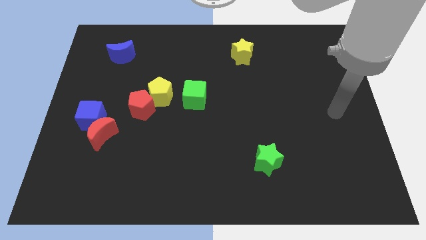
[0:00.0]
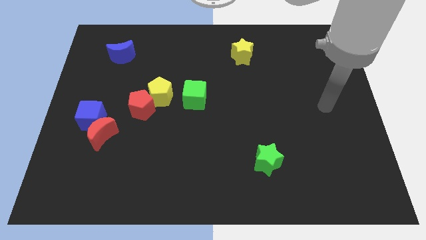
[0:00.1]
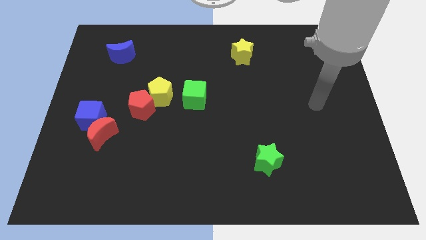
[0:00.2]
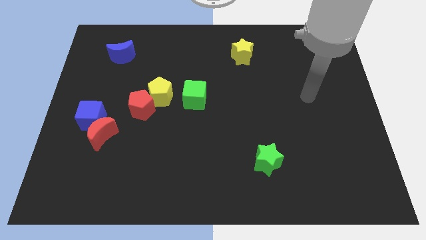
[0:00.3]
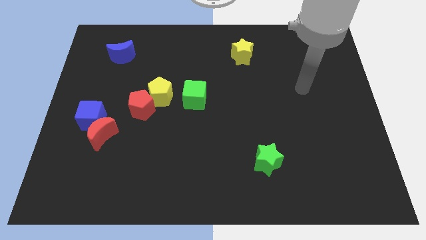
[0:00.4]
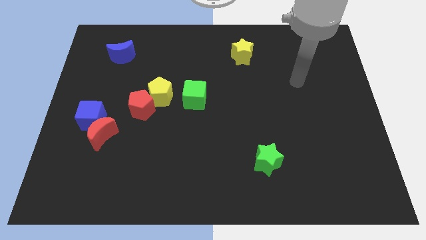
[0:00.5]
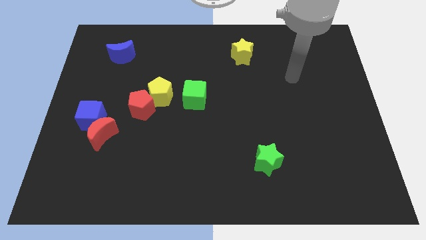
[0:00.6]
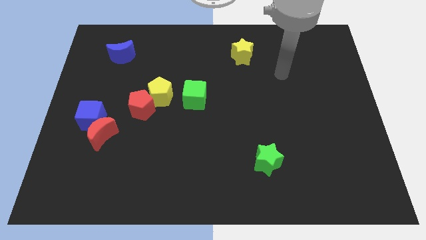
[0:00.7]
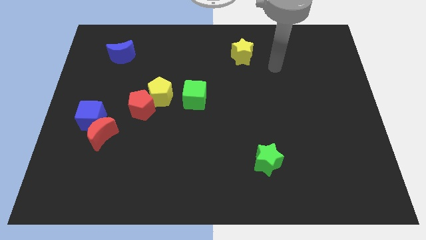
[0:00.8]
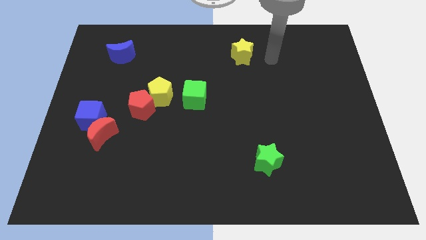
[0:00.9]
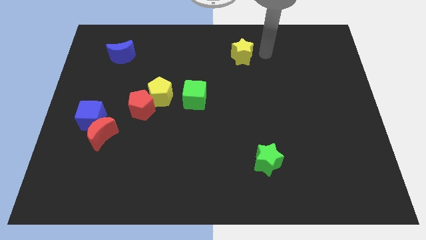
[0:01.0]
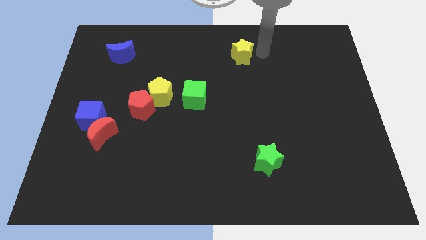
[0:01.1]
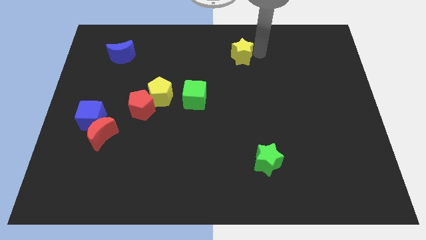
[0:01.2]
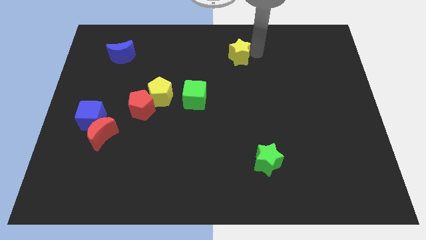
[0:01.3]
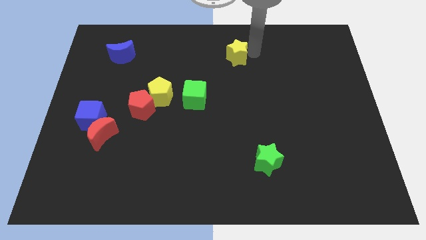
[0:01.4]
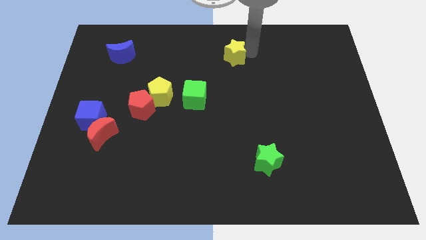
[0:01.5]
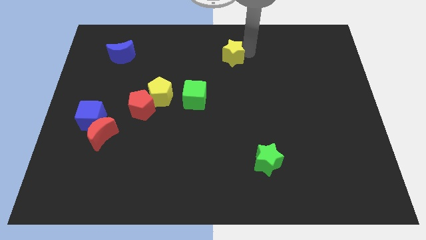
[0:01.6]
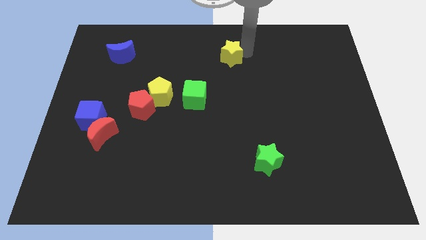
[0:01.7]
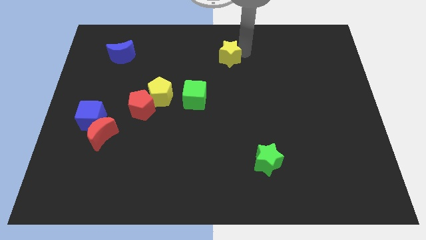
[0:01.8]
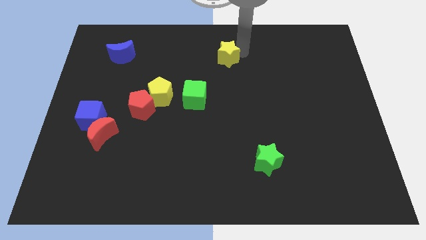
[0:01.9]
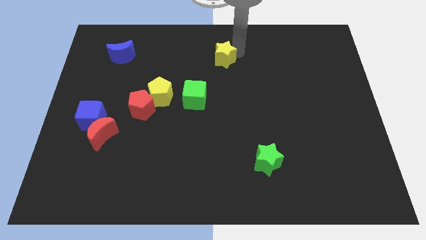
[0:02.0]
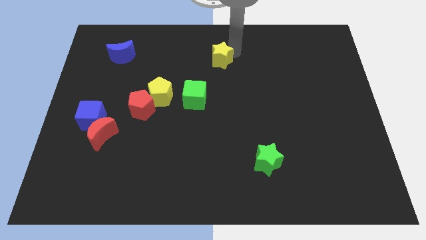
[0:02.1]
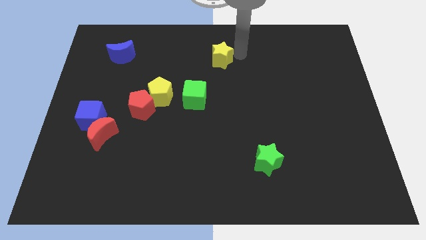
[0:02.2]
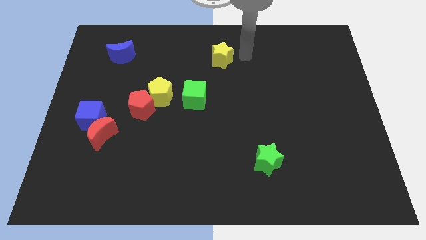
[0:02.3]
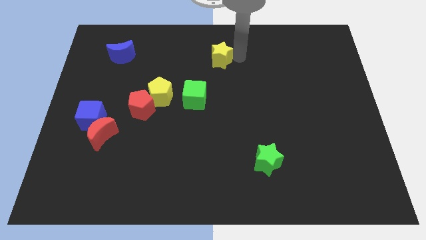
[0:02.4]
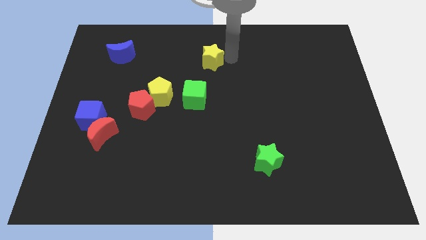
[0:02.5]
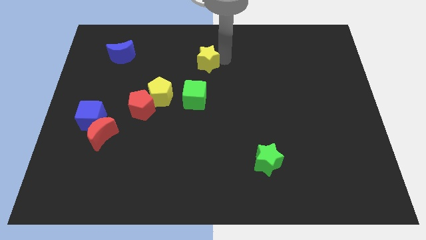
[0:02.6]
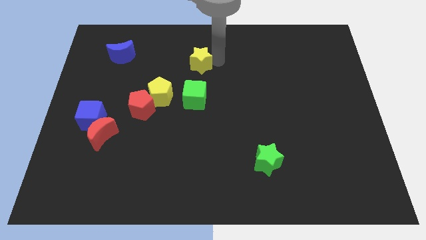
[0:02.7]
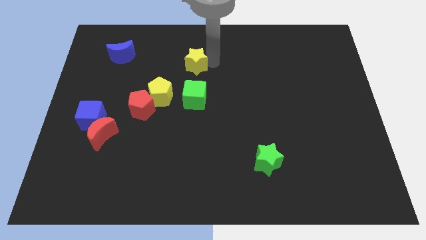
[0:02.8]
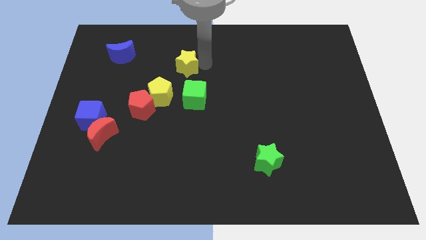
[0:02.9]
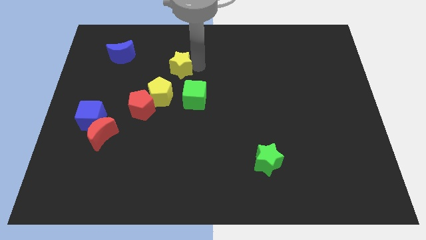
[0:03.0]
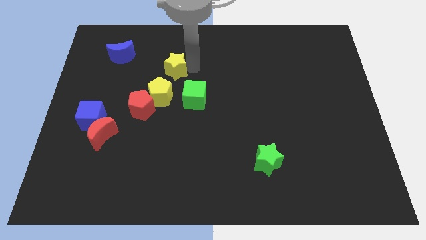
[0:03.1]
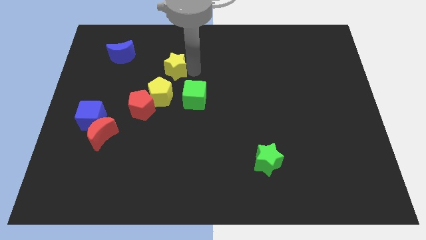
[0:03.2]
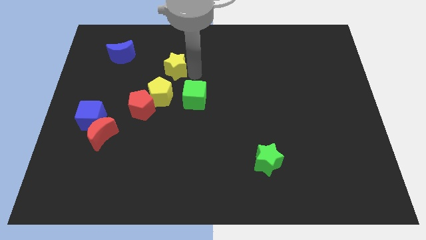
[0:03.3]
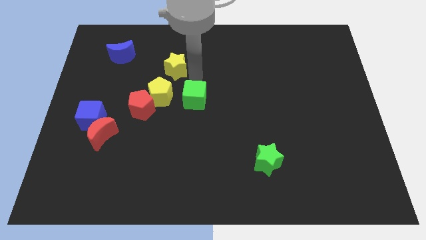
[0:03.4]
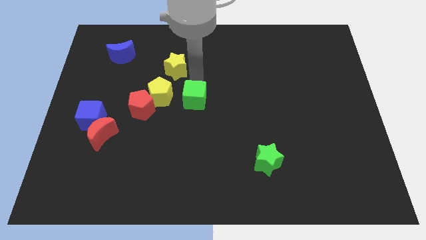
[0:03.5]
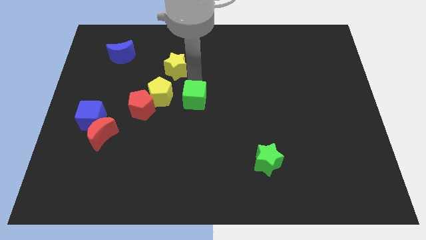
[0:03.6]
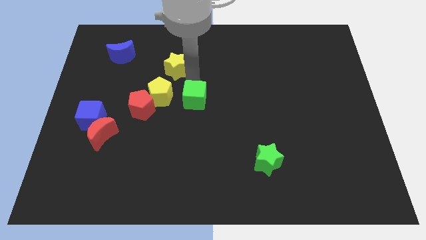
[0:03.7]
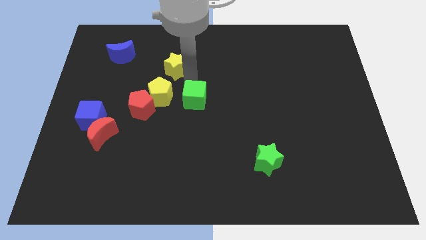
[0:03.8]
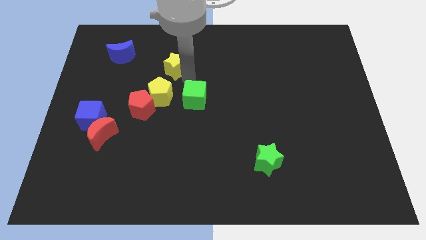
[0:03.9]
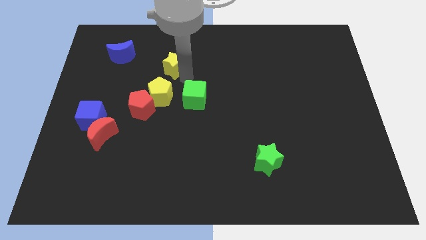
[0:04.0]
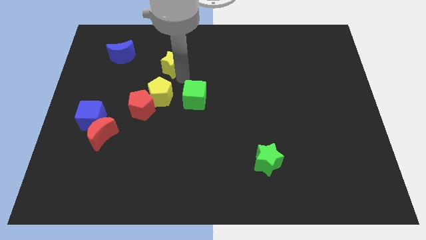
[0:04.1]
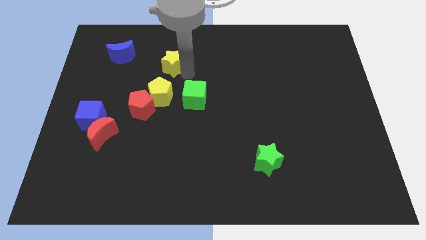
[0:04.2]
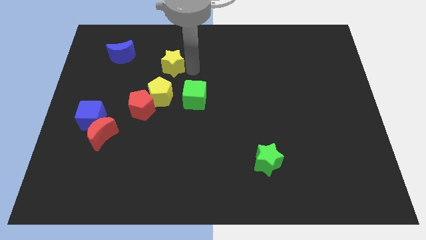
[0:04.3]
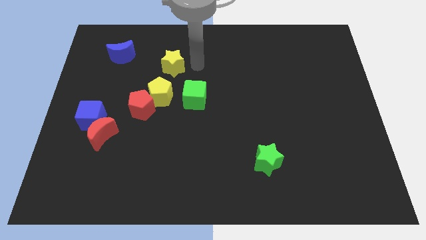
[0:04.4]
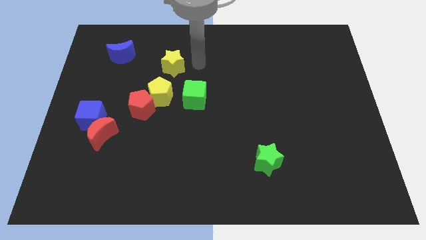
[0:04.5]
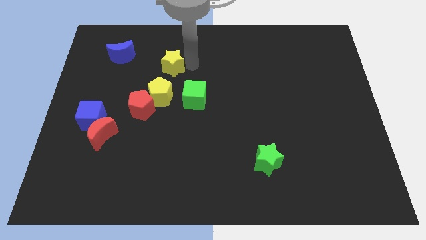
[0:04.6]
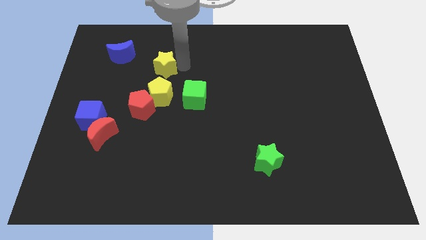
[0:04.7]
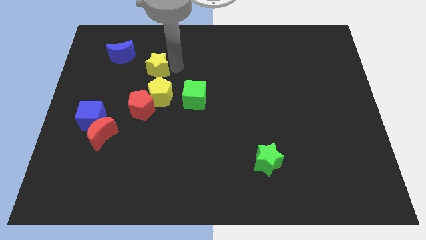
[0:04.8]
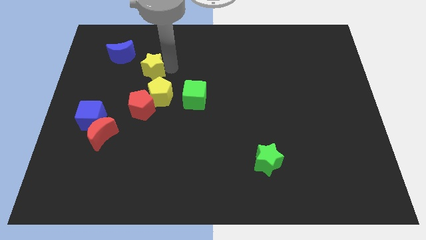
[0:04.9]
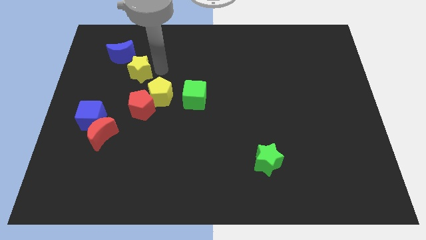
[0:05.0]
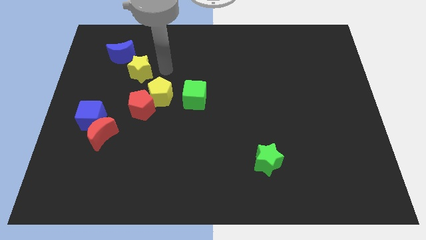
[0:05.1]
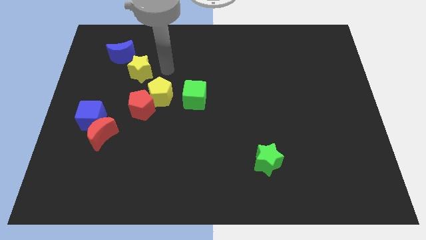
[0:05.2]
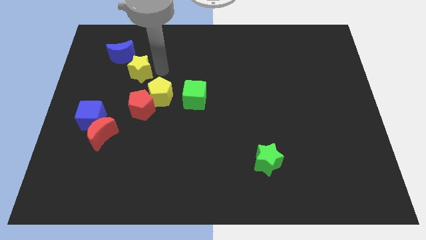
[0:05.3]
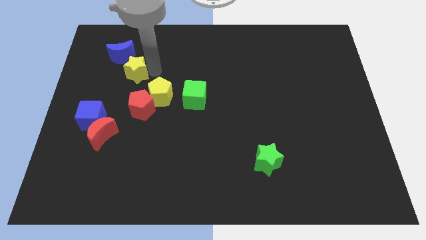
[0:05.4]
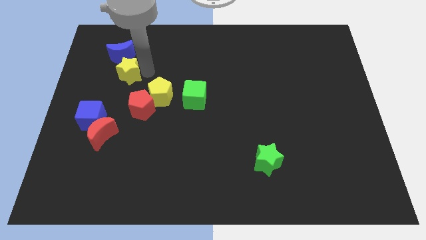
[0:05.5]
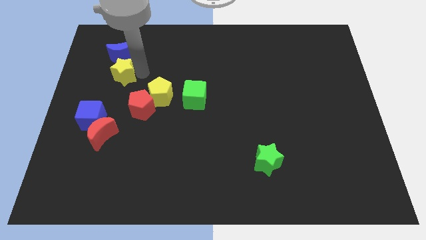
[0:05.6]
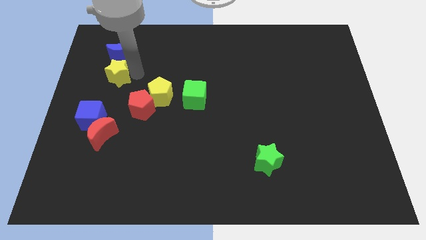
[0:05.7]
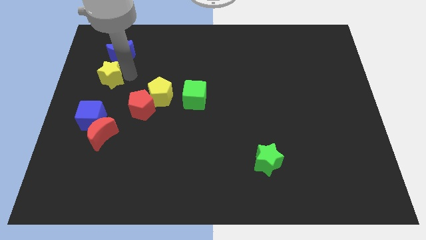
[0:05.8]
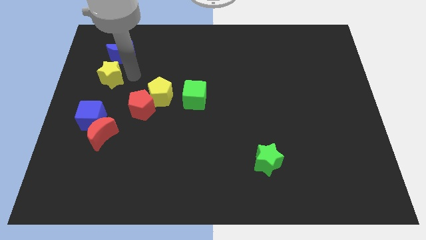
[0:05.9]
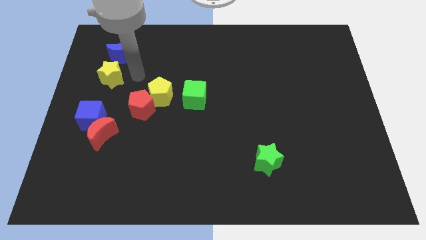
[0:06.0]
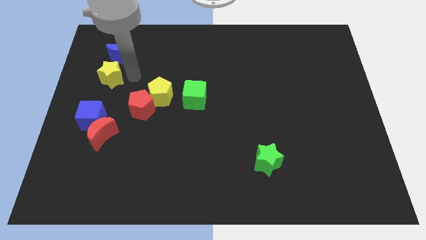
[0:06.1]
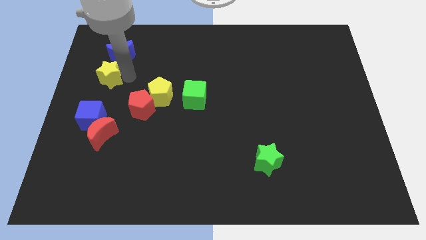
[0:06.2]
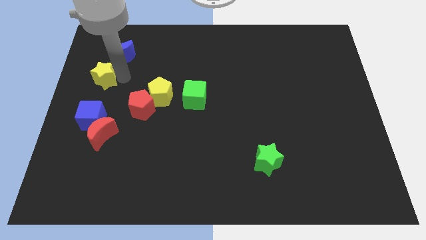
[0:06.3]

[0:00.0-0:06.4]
push the yellow star to the left side
